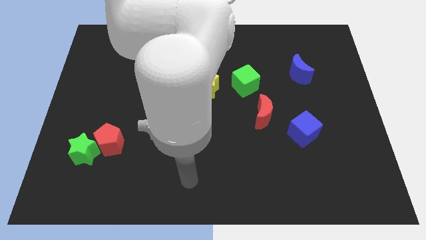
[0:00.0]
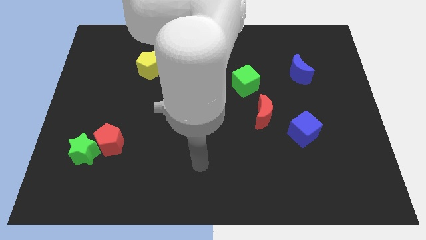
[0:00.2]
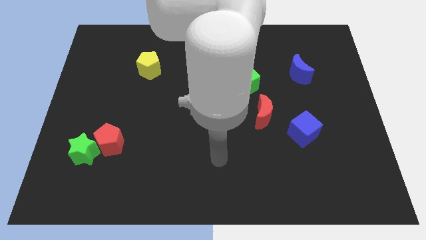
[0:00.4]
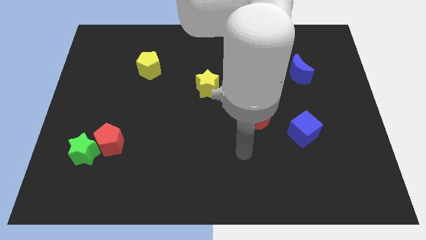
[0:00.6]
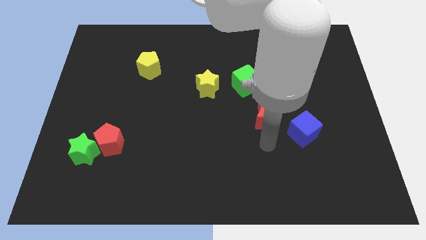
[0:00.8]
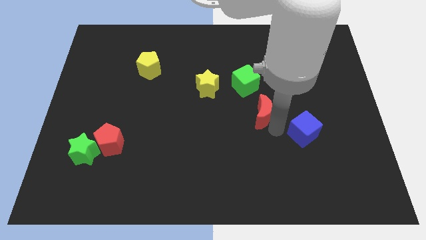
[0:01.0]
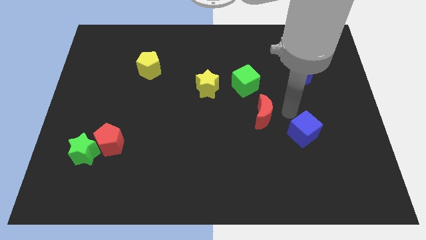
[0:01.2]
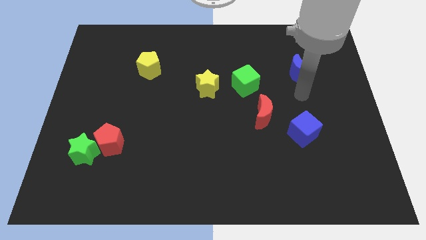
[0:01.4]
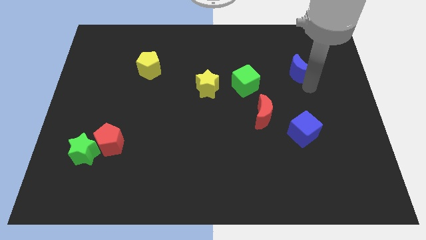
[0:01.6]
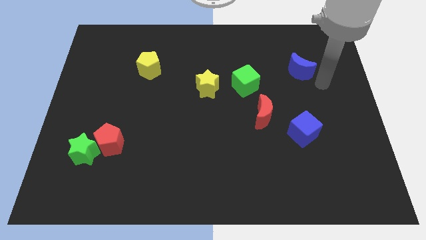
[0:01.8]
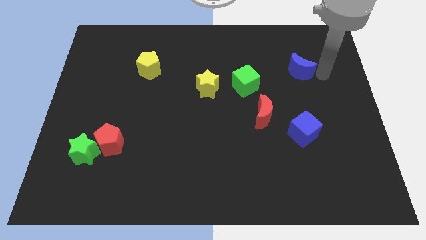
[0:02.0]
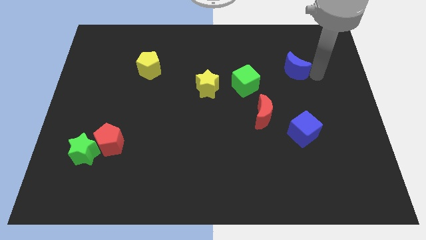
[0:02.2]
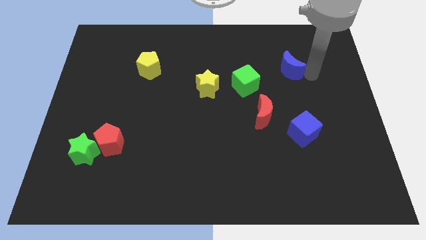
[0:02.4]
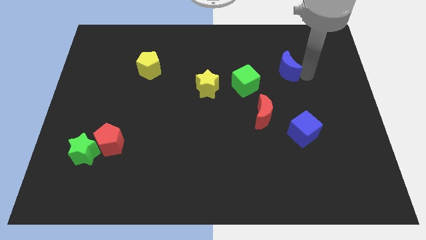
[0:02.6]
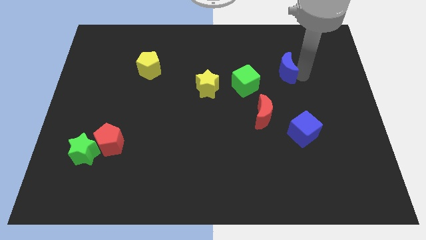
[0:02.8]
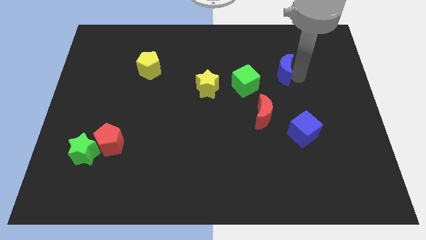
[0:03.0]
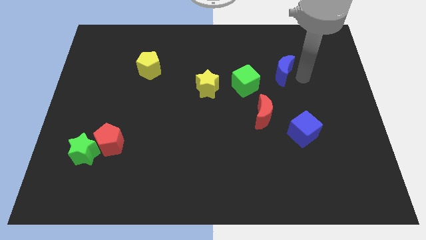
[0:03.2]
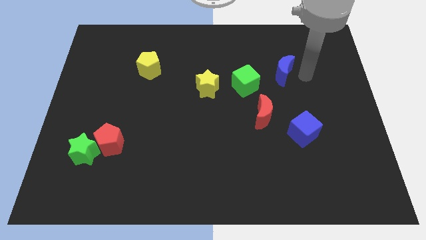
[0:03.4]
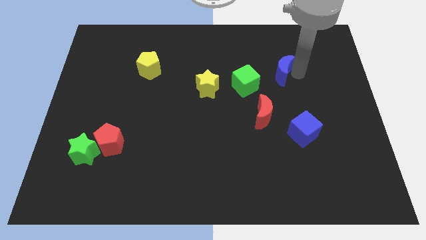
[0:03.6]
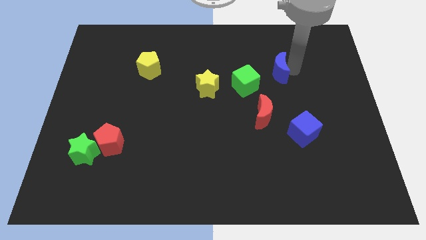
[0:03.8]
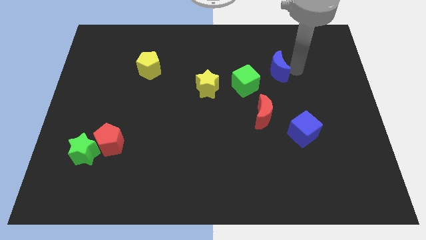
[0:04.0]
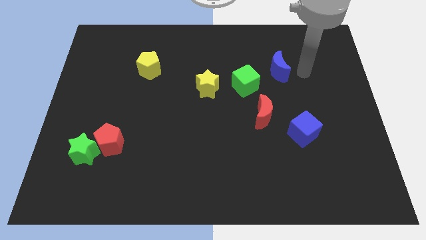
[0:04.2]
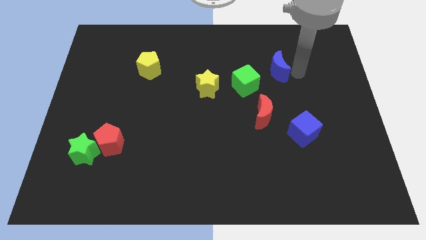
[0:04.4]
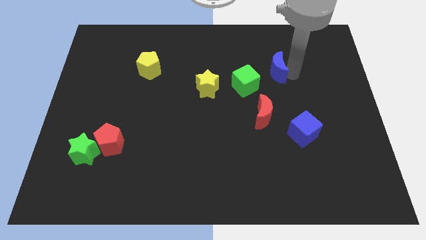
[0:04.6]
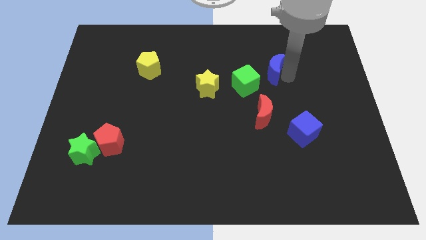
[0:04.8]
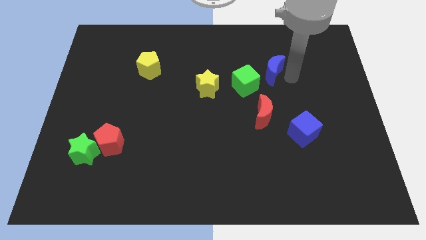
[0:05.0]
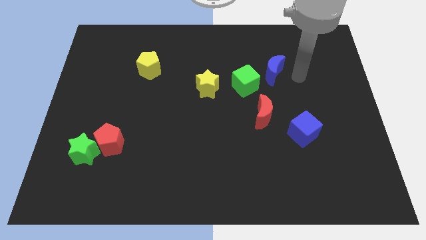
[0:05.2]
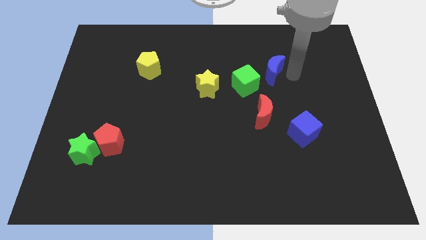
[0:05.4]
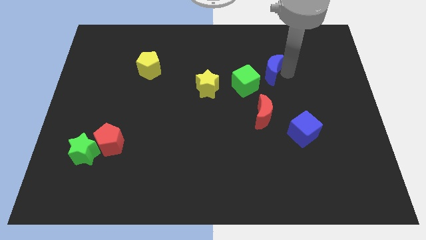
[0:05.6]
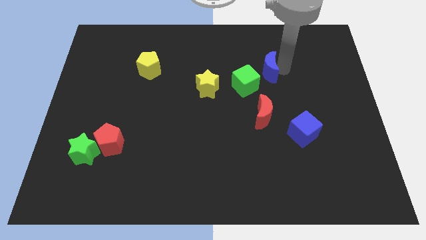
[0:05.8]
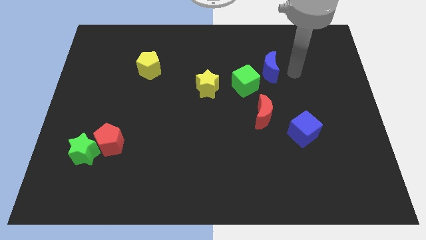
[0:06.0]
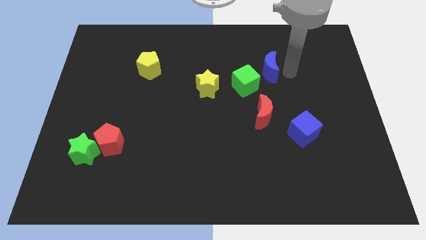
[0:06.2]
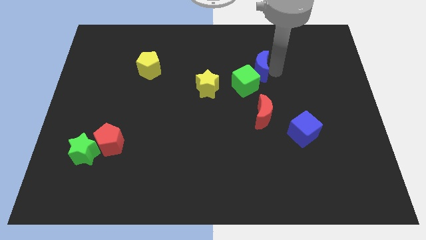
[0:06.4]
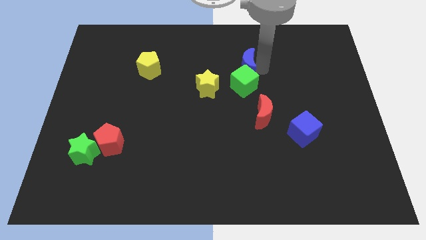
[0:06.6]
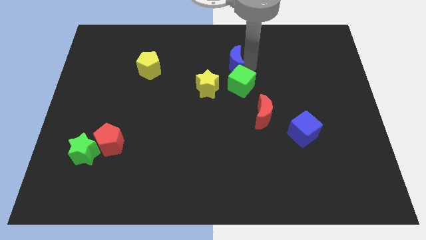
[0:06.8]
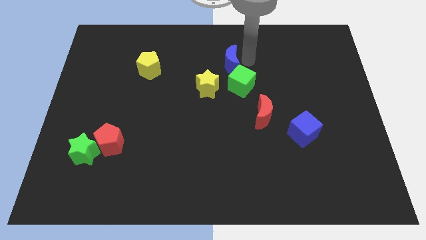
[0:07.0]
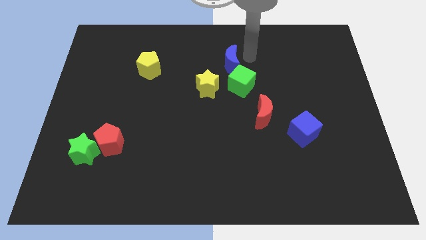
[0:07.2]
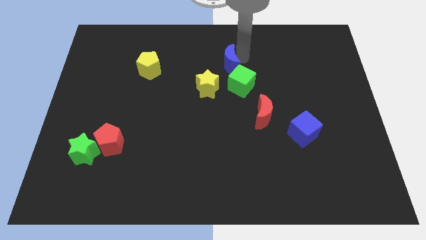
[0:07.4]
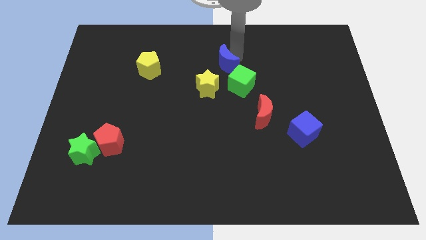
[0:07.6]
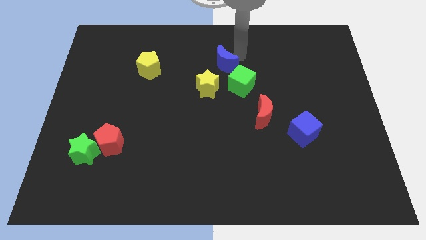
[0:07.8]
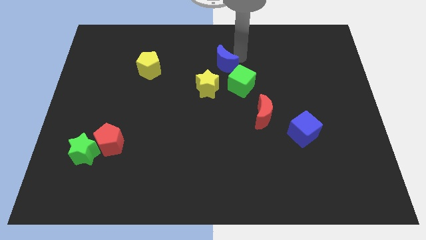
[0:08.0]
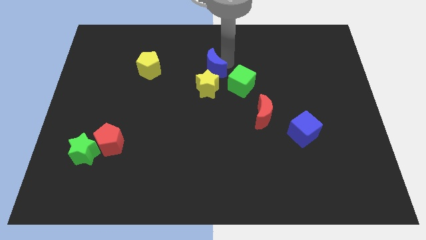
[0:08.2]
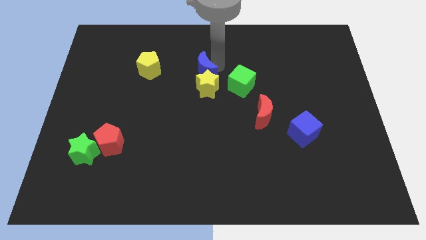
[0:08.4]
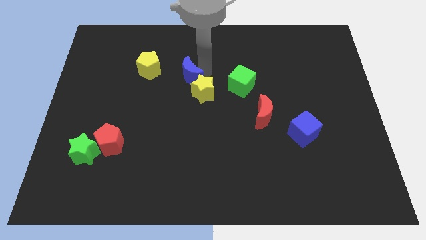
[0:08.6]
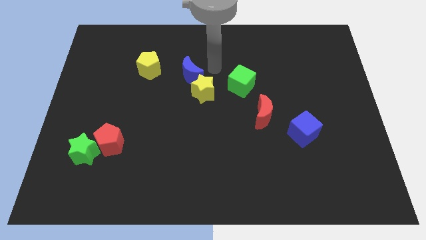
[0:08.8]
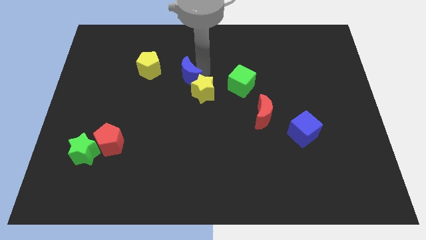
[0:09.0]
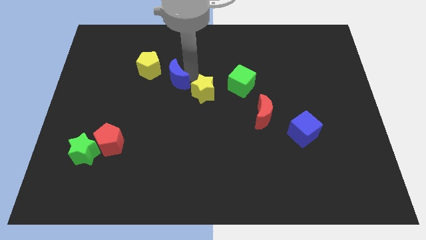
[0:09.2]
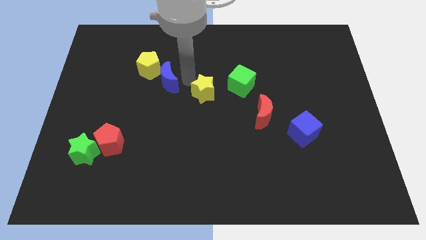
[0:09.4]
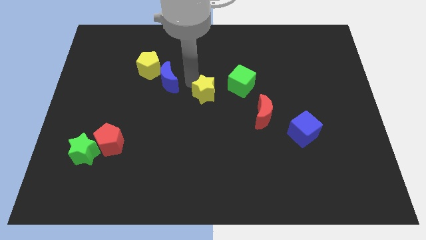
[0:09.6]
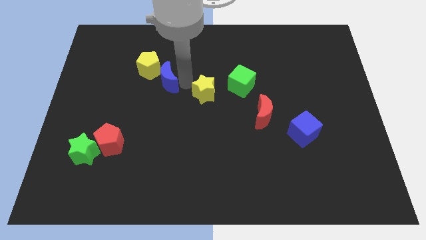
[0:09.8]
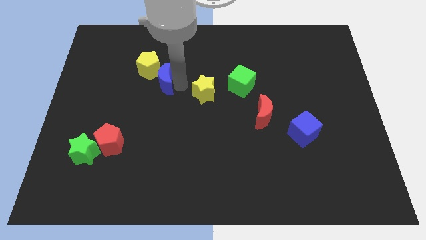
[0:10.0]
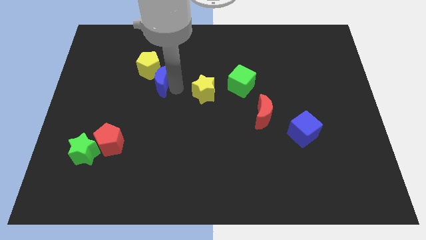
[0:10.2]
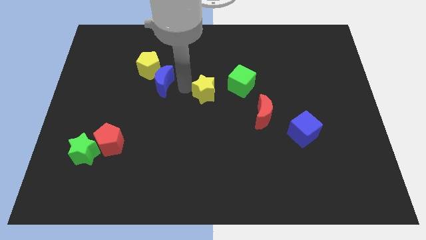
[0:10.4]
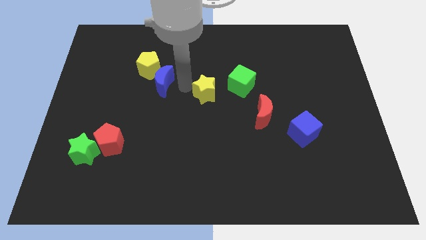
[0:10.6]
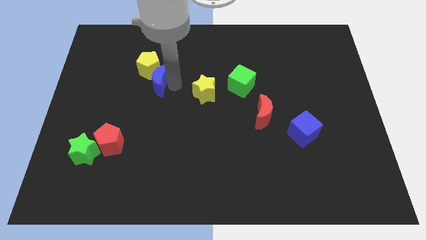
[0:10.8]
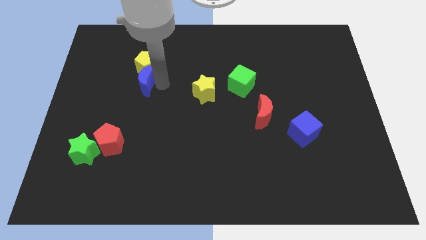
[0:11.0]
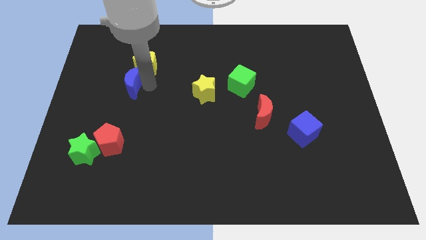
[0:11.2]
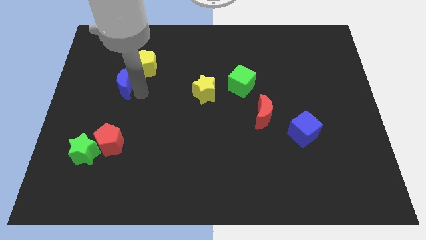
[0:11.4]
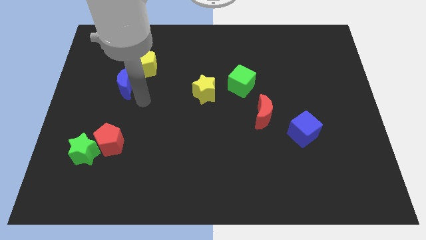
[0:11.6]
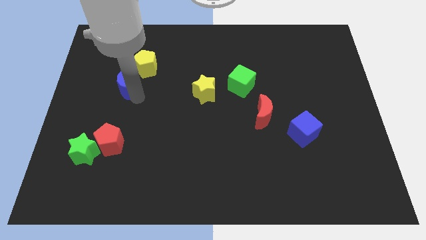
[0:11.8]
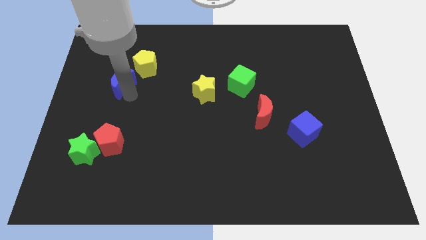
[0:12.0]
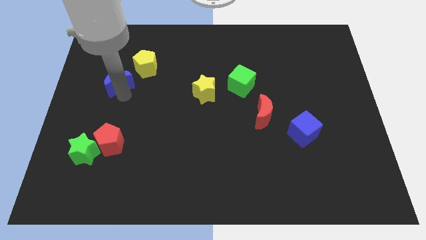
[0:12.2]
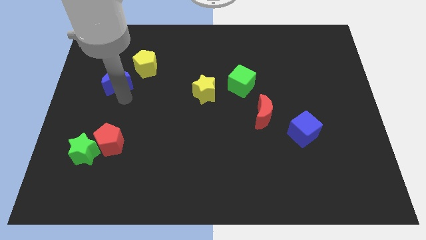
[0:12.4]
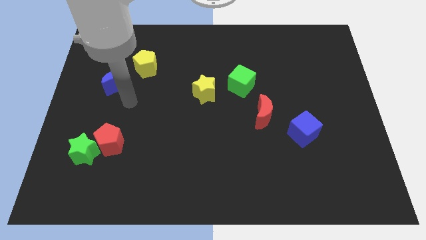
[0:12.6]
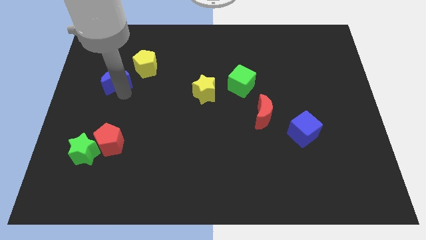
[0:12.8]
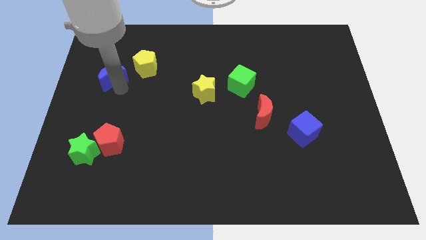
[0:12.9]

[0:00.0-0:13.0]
slide the blue moon just left of the yellow pentagon

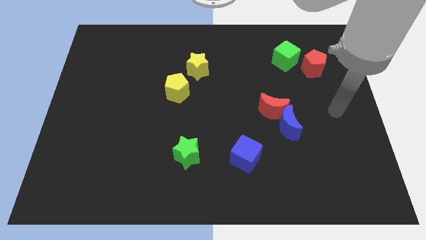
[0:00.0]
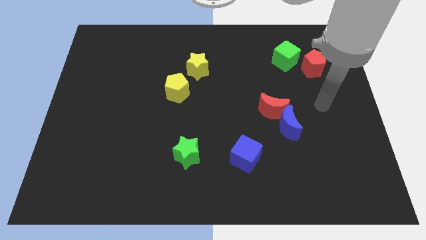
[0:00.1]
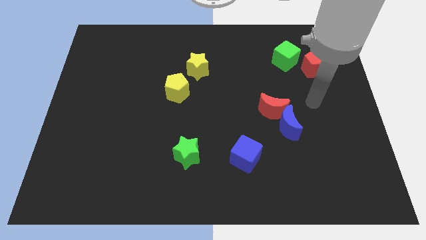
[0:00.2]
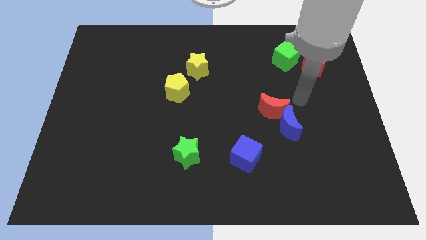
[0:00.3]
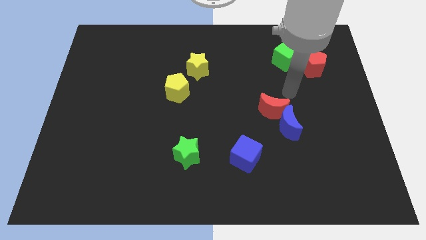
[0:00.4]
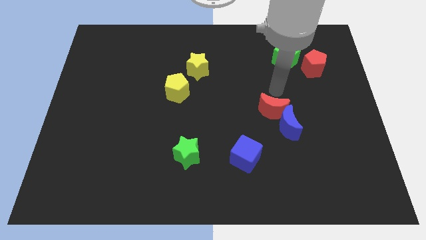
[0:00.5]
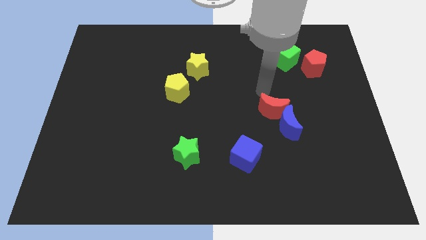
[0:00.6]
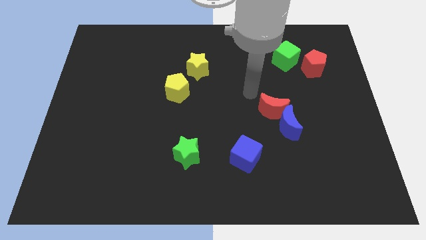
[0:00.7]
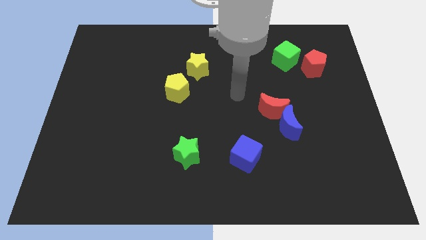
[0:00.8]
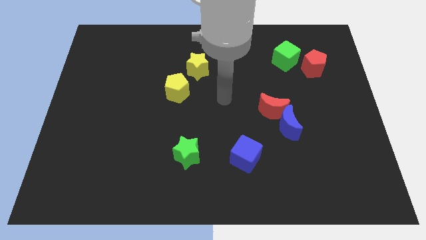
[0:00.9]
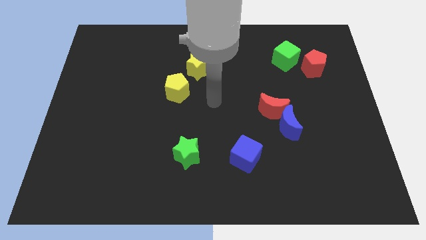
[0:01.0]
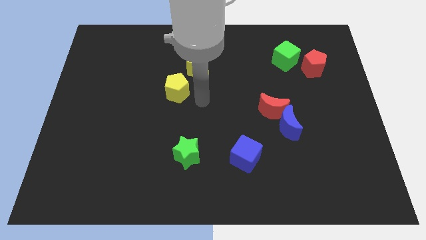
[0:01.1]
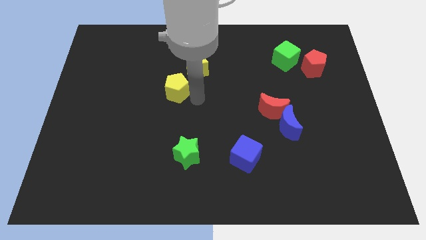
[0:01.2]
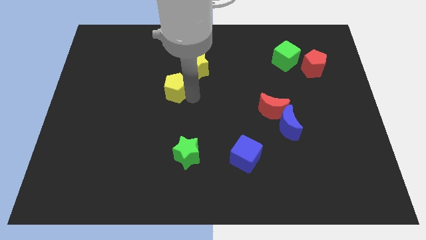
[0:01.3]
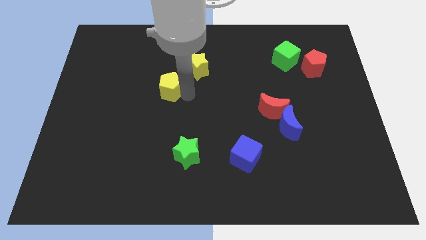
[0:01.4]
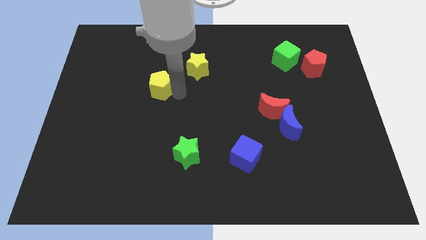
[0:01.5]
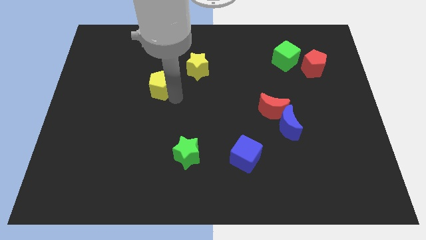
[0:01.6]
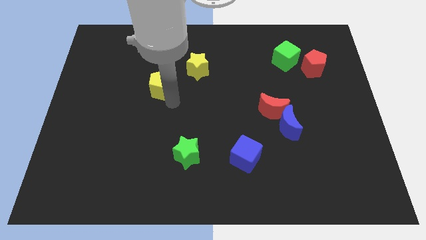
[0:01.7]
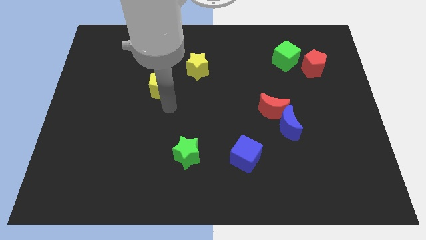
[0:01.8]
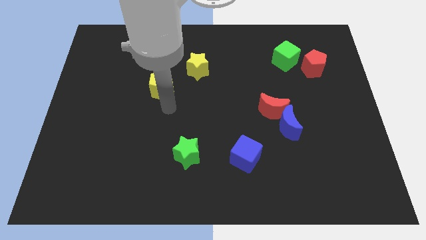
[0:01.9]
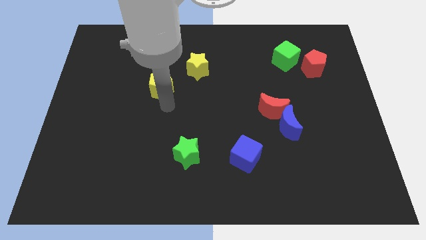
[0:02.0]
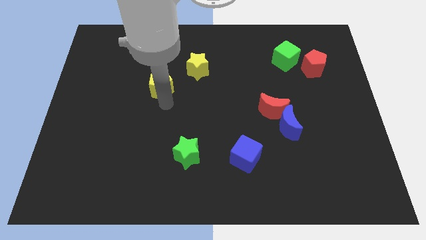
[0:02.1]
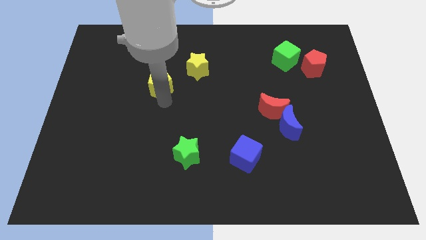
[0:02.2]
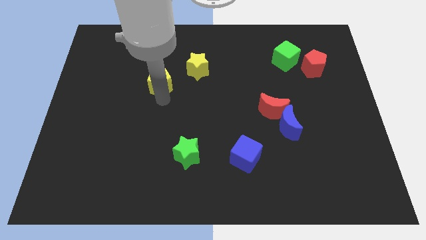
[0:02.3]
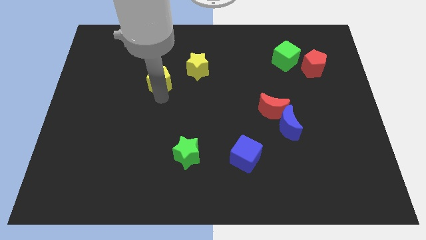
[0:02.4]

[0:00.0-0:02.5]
put the yellow pentagon left of the yellow star
